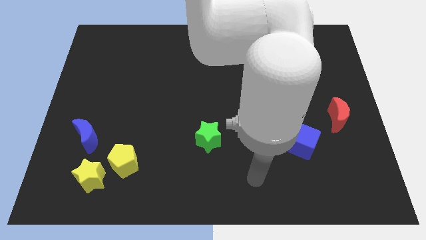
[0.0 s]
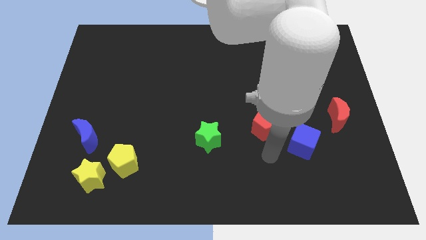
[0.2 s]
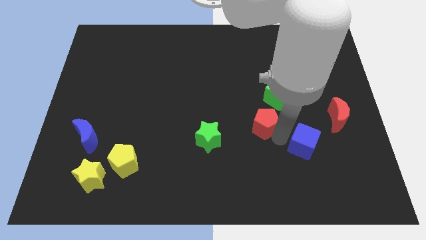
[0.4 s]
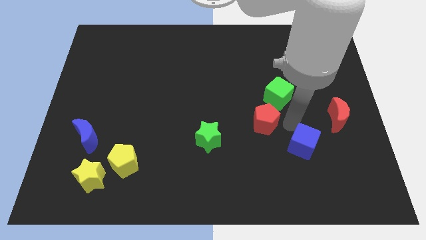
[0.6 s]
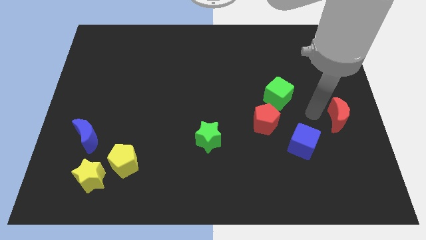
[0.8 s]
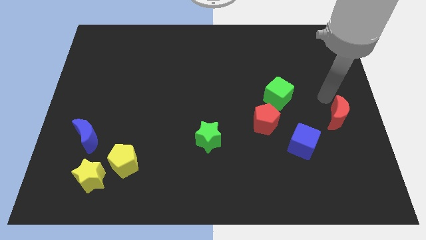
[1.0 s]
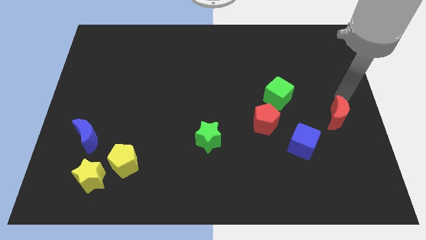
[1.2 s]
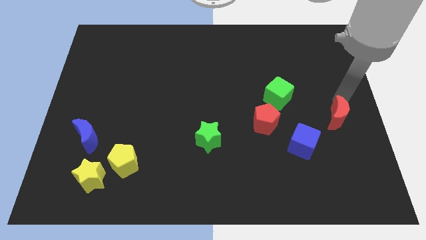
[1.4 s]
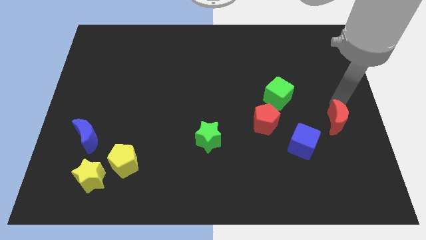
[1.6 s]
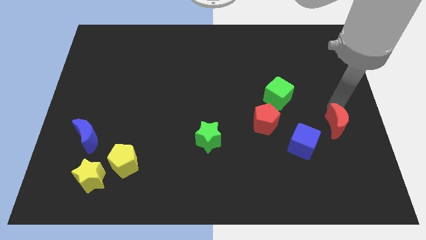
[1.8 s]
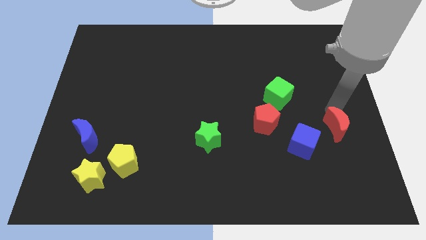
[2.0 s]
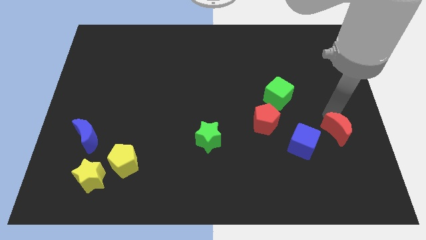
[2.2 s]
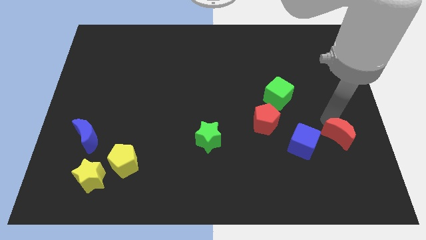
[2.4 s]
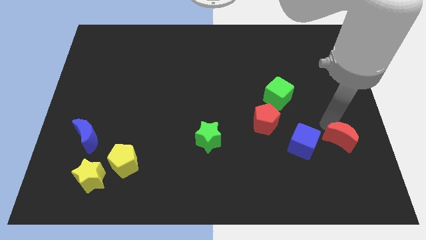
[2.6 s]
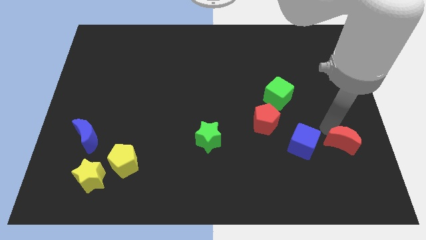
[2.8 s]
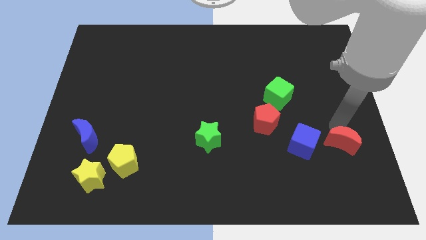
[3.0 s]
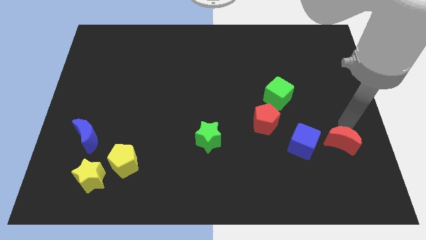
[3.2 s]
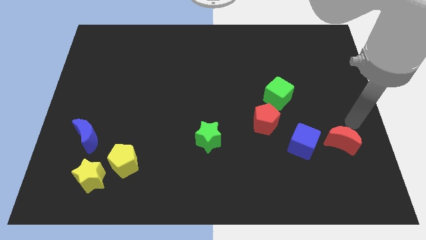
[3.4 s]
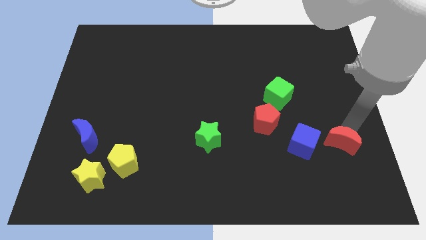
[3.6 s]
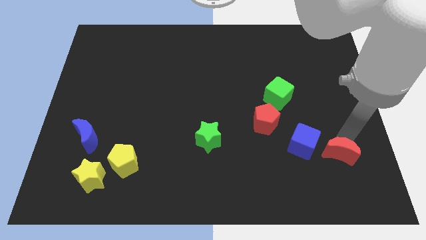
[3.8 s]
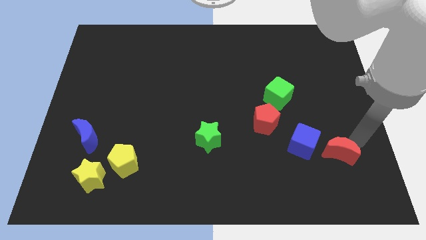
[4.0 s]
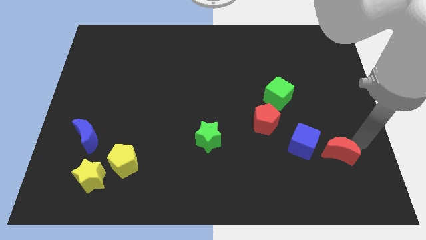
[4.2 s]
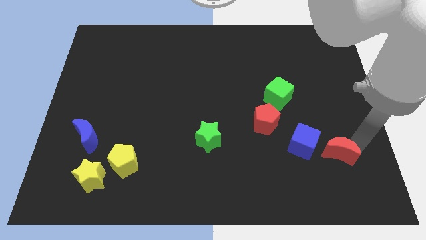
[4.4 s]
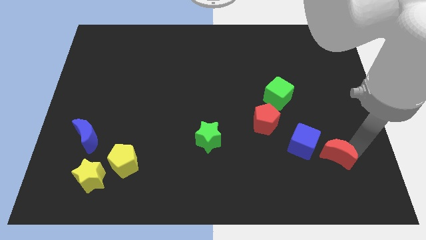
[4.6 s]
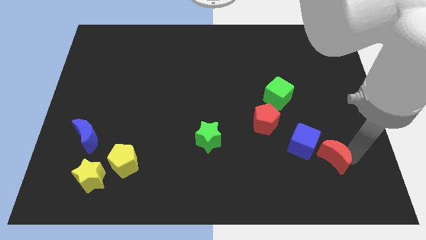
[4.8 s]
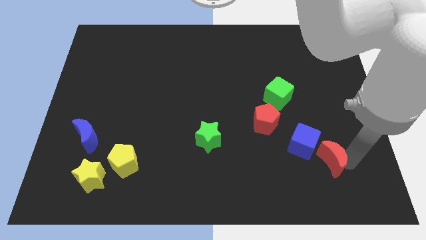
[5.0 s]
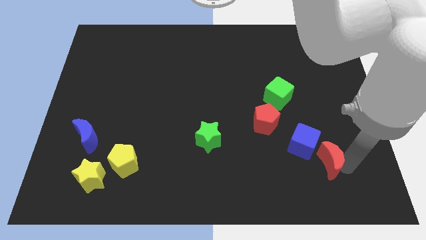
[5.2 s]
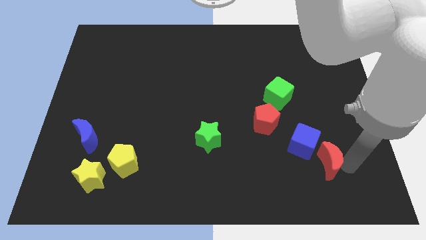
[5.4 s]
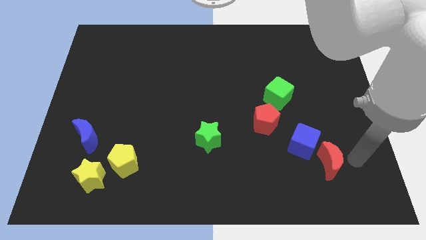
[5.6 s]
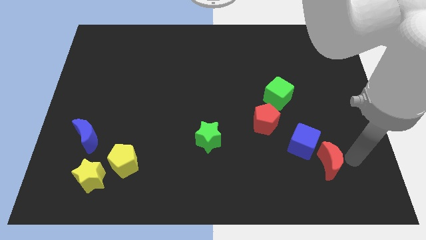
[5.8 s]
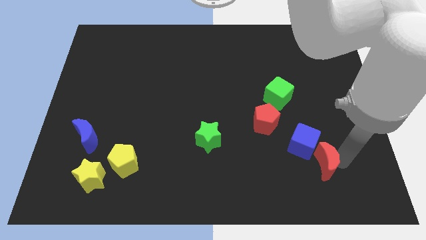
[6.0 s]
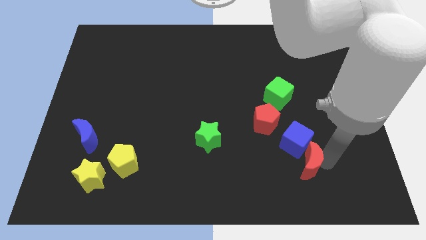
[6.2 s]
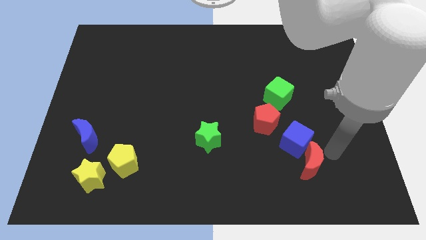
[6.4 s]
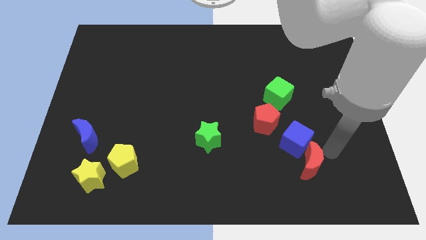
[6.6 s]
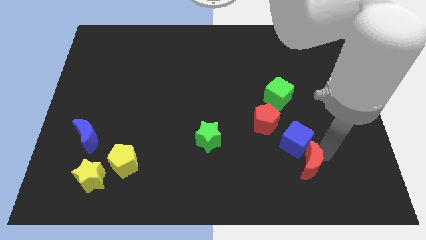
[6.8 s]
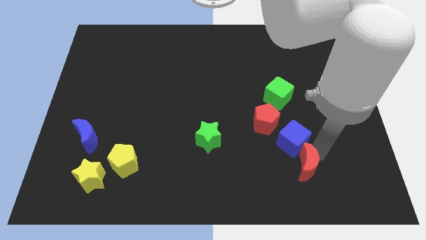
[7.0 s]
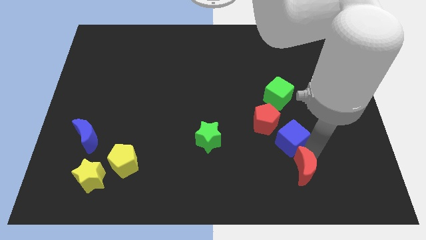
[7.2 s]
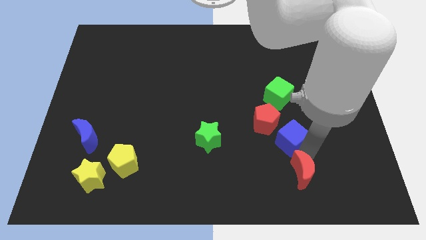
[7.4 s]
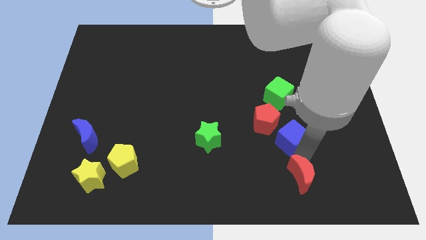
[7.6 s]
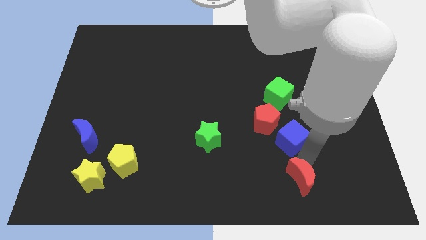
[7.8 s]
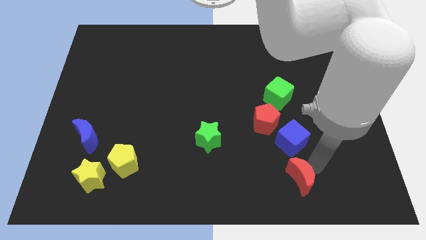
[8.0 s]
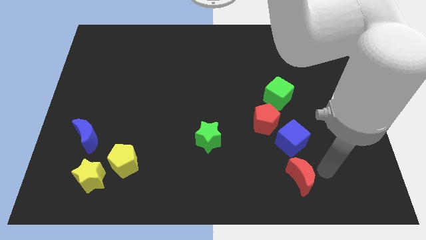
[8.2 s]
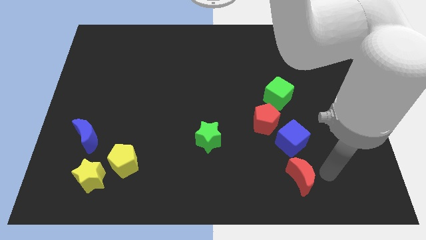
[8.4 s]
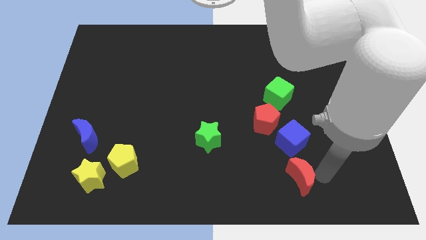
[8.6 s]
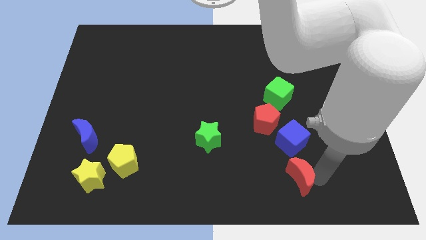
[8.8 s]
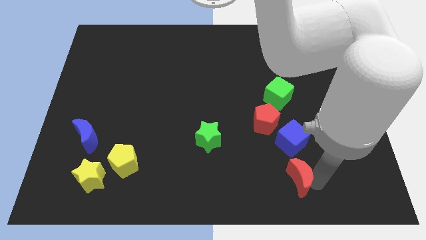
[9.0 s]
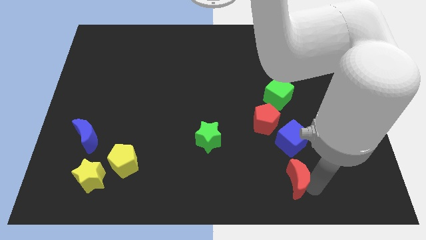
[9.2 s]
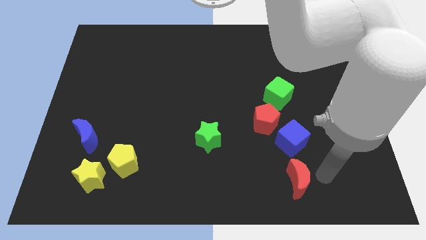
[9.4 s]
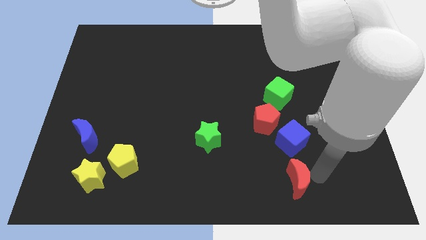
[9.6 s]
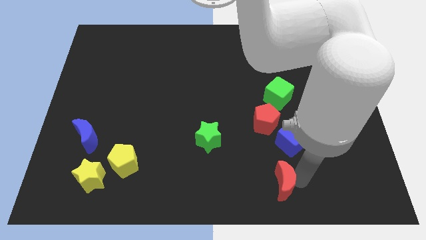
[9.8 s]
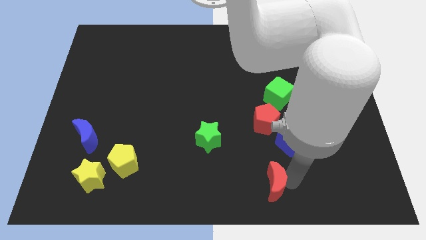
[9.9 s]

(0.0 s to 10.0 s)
put the red moon to the bottom

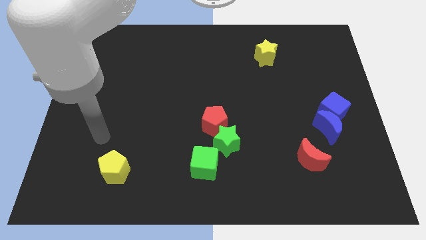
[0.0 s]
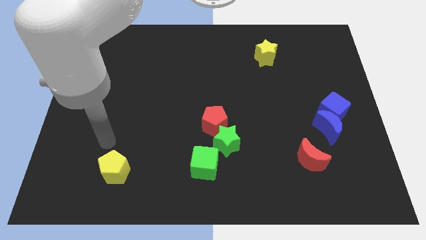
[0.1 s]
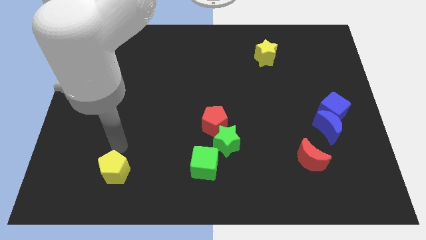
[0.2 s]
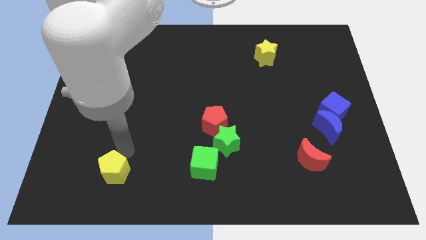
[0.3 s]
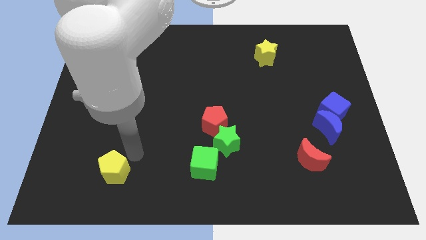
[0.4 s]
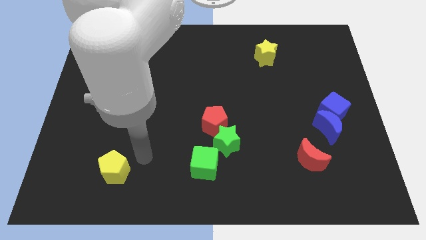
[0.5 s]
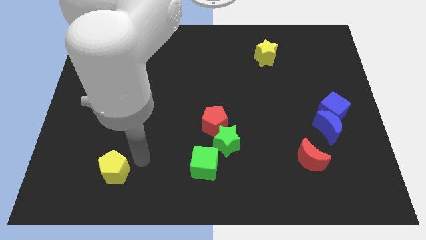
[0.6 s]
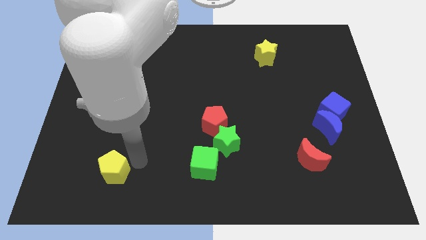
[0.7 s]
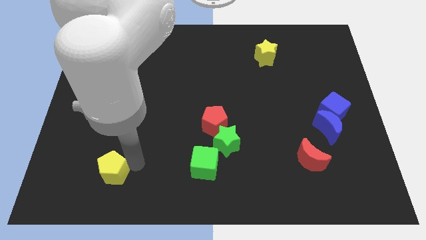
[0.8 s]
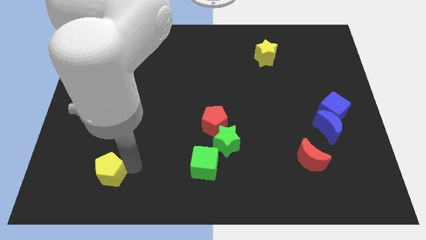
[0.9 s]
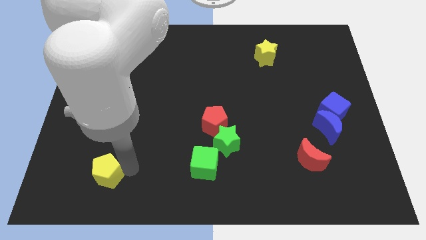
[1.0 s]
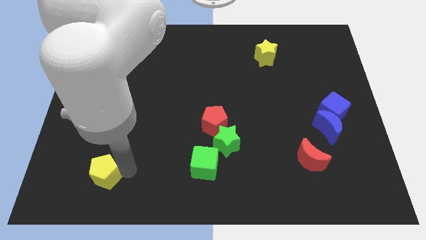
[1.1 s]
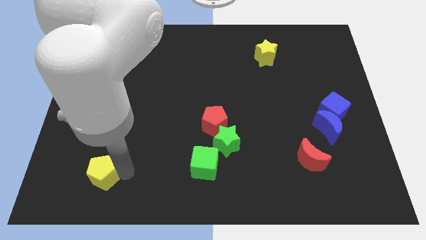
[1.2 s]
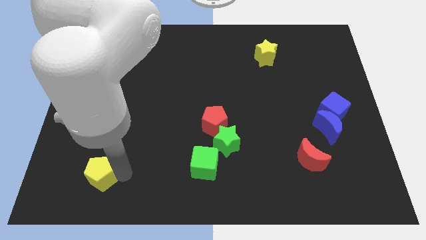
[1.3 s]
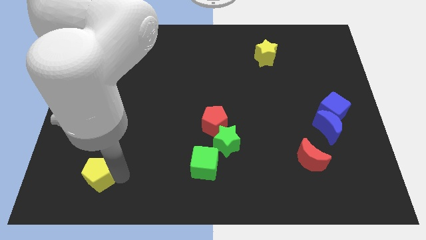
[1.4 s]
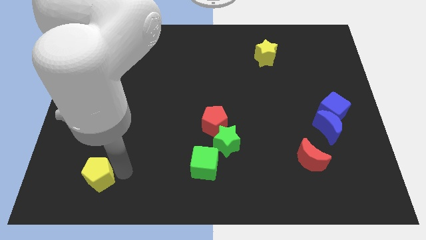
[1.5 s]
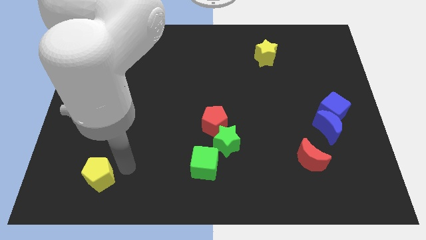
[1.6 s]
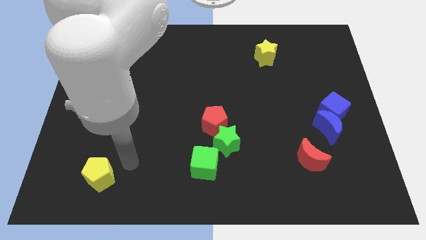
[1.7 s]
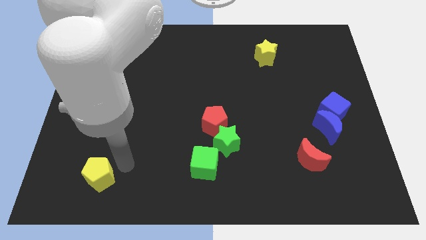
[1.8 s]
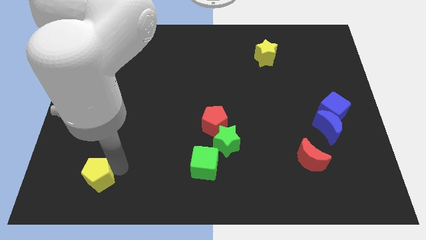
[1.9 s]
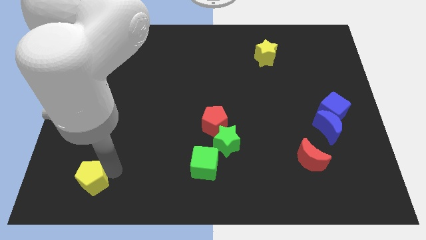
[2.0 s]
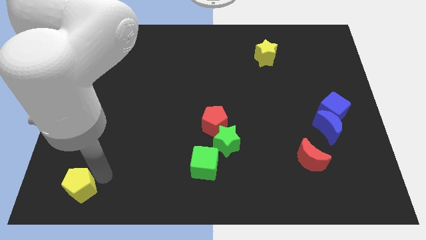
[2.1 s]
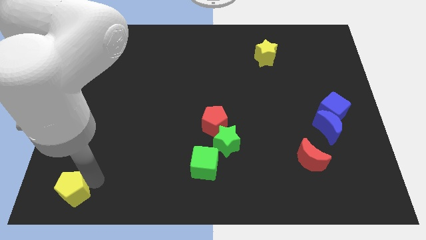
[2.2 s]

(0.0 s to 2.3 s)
push the yellow pentagon to the bottom left of the board
